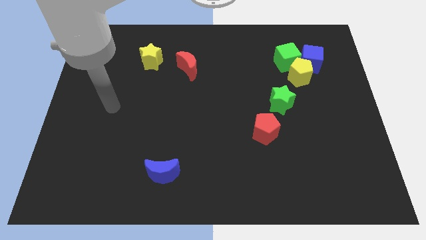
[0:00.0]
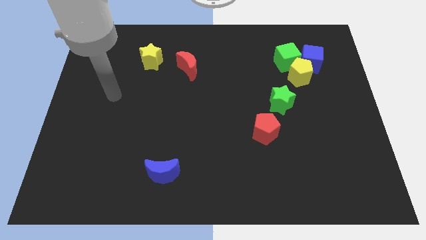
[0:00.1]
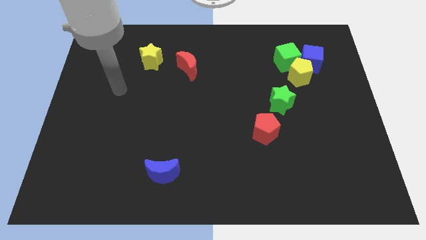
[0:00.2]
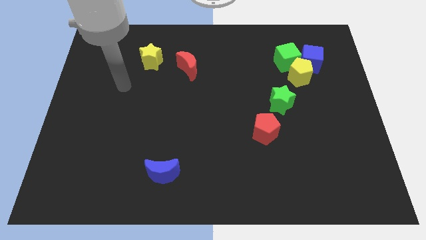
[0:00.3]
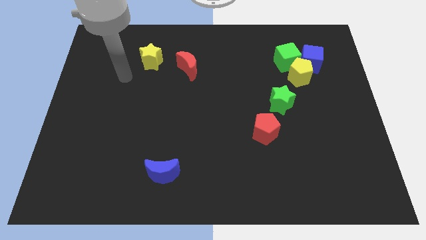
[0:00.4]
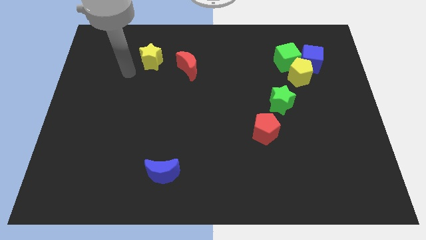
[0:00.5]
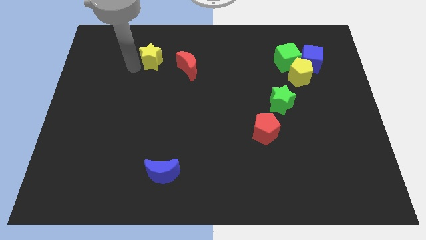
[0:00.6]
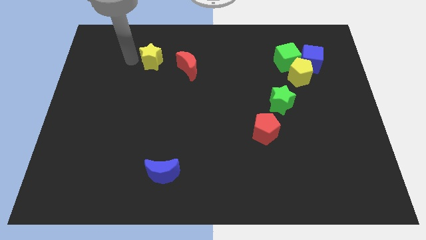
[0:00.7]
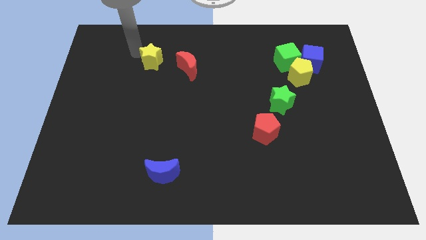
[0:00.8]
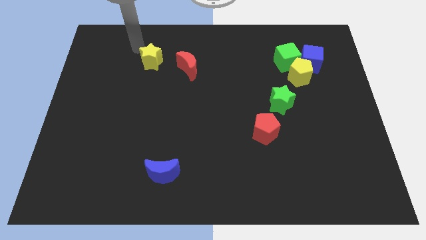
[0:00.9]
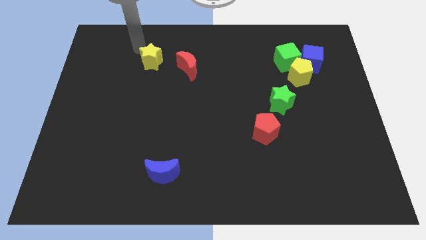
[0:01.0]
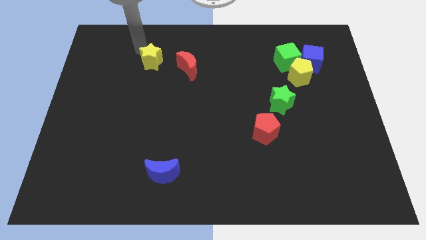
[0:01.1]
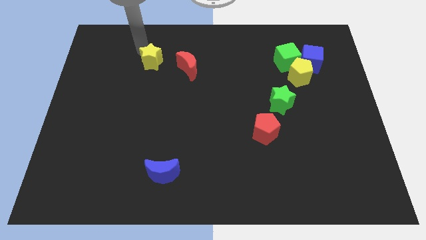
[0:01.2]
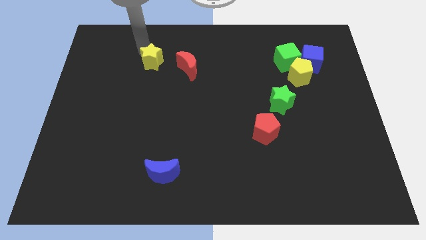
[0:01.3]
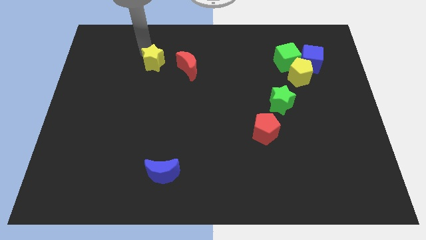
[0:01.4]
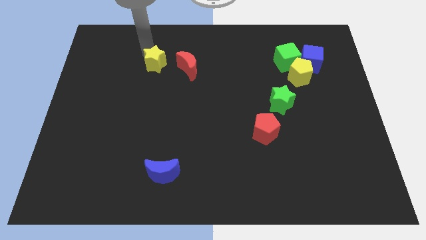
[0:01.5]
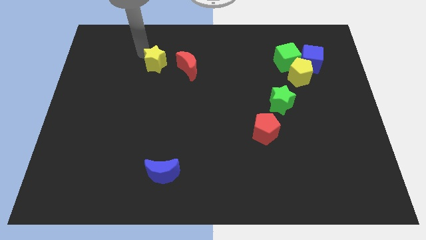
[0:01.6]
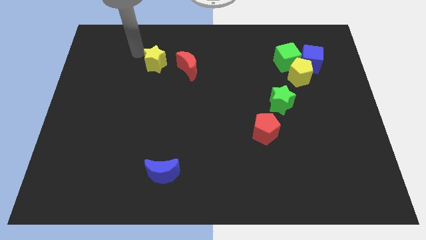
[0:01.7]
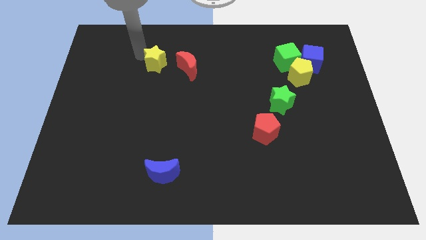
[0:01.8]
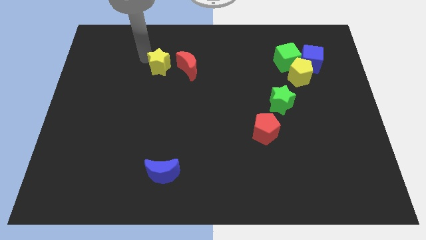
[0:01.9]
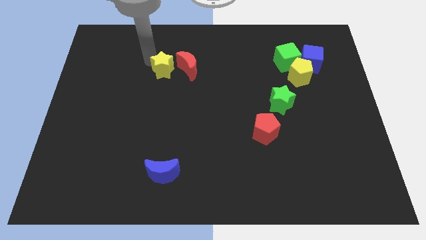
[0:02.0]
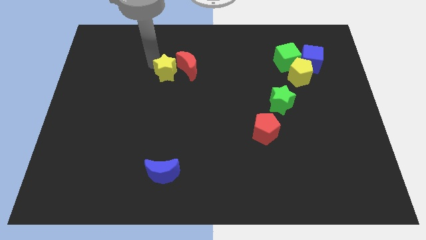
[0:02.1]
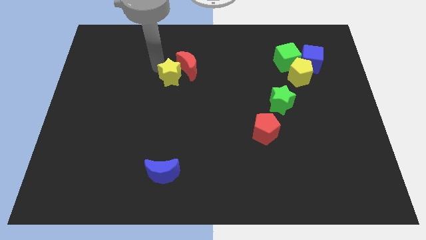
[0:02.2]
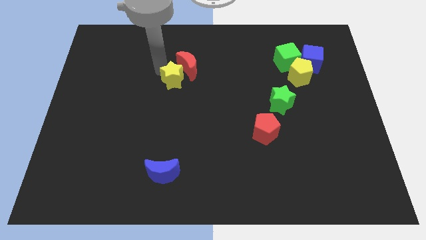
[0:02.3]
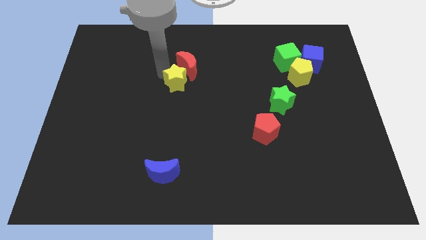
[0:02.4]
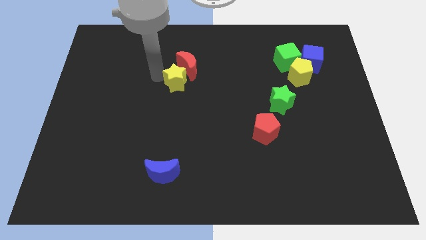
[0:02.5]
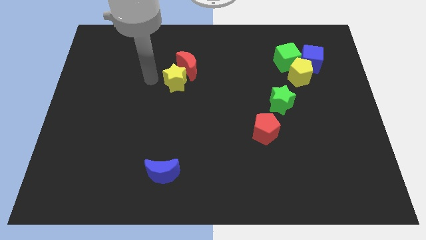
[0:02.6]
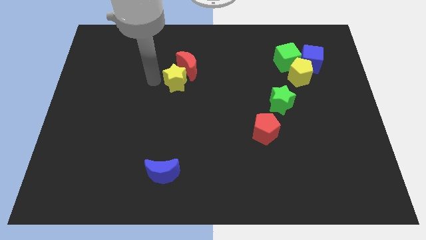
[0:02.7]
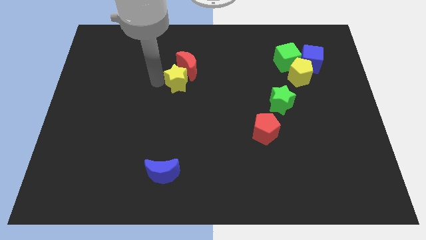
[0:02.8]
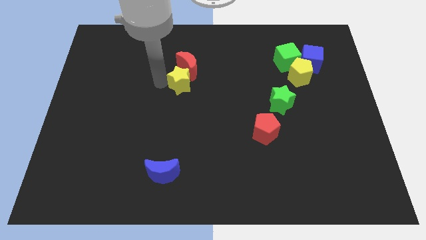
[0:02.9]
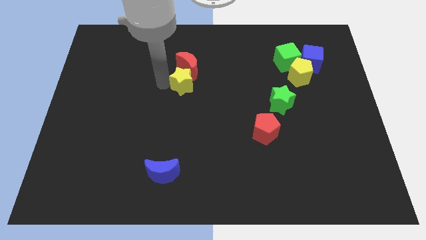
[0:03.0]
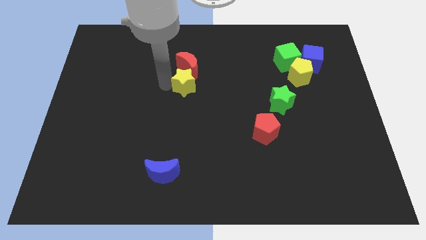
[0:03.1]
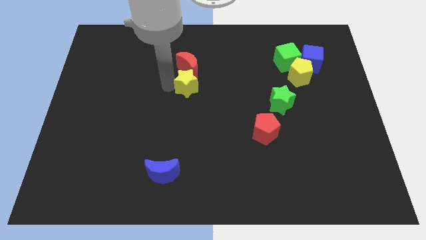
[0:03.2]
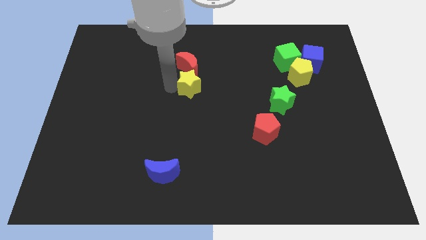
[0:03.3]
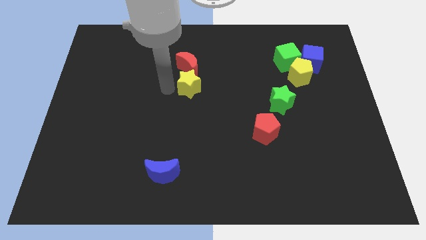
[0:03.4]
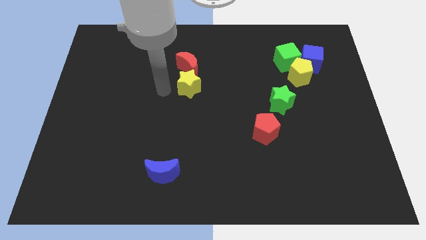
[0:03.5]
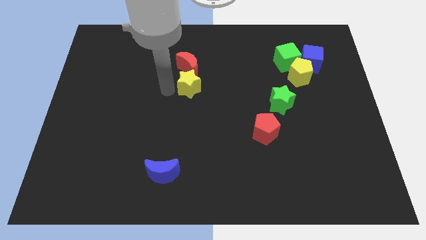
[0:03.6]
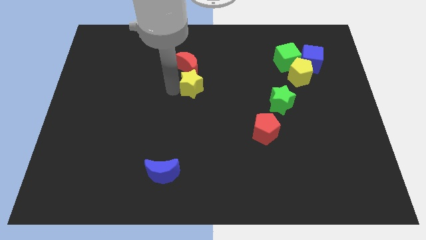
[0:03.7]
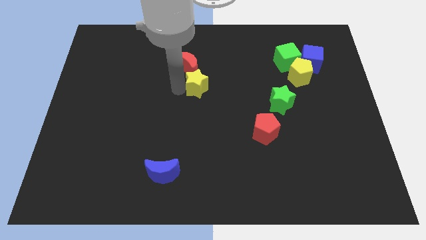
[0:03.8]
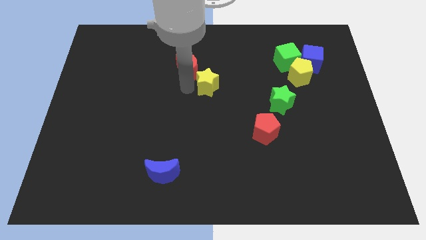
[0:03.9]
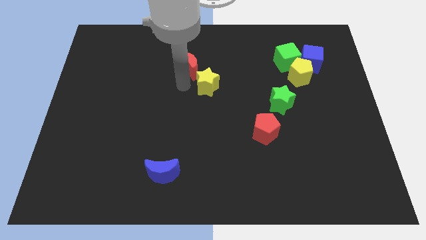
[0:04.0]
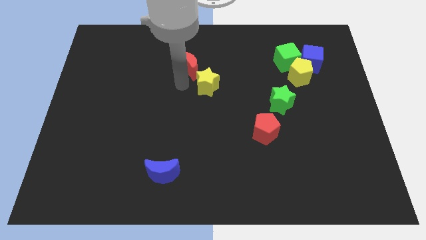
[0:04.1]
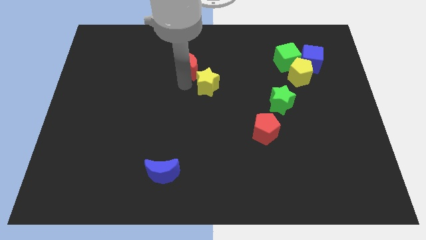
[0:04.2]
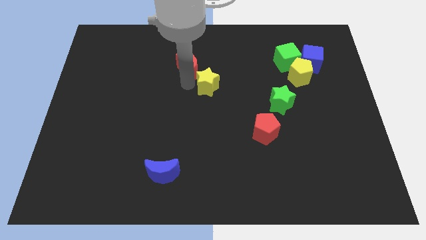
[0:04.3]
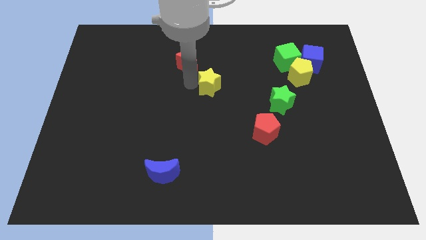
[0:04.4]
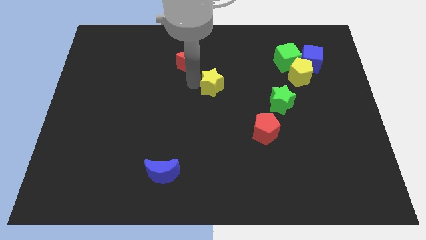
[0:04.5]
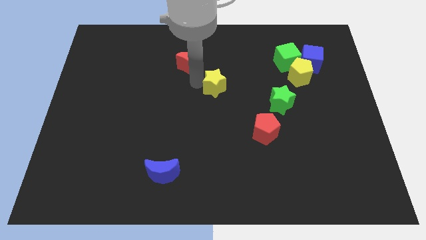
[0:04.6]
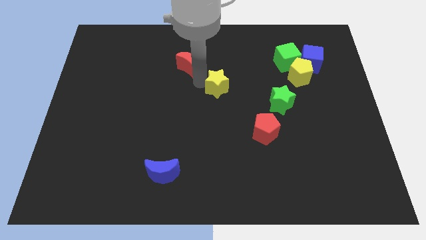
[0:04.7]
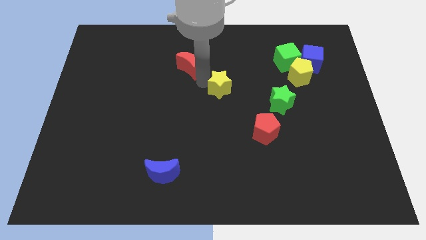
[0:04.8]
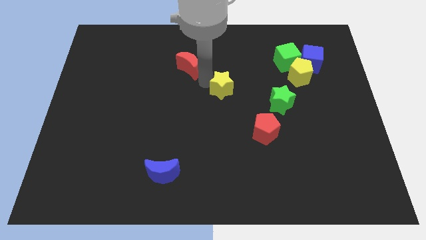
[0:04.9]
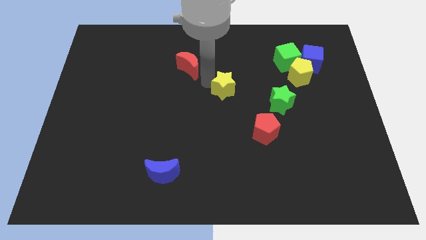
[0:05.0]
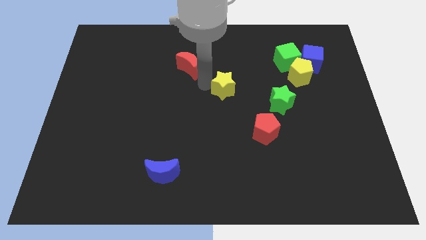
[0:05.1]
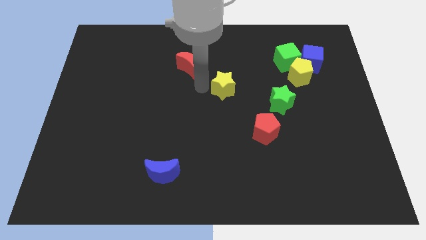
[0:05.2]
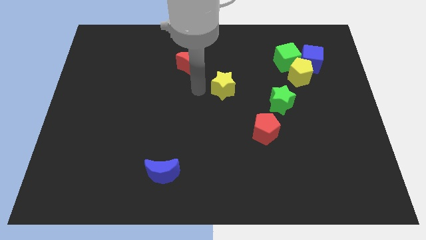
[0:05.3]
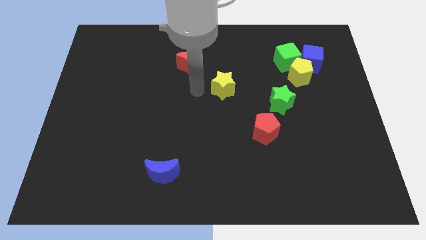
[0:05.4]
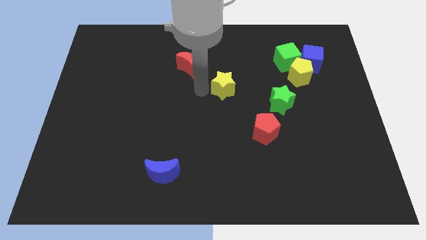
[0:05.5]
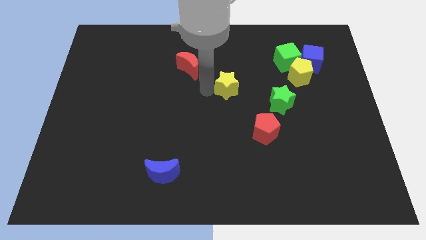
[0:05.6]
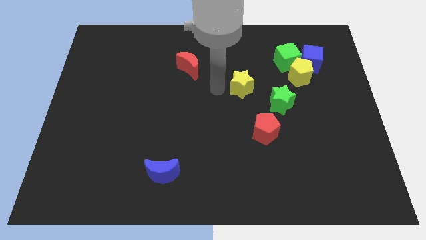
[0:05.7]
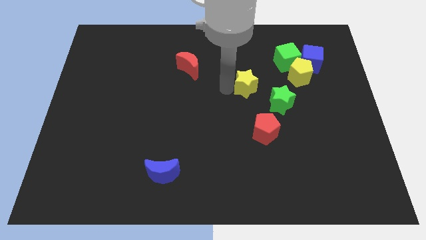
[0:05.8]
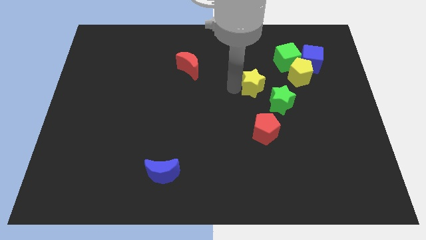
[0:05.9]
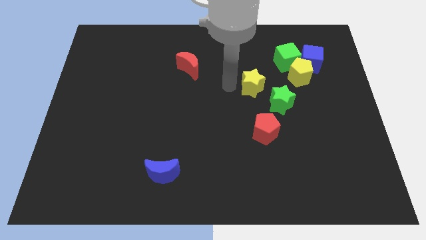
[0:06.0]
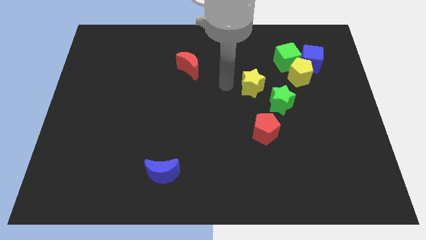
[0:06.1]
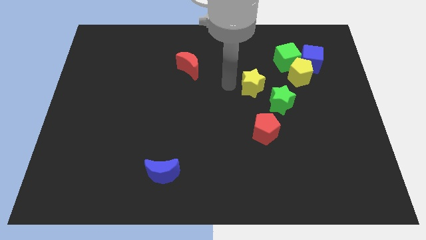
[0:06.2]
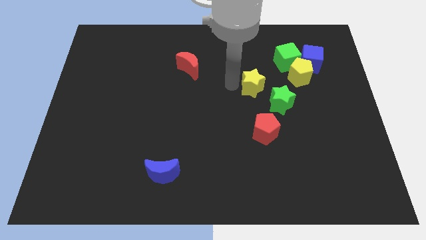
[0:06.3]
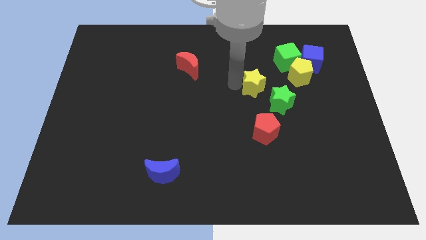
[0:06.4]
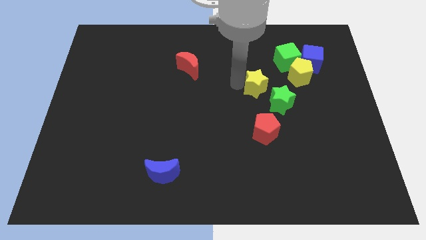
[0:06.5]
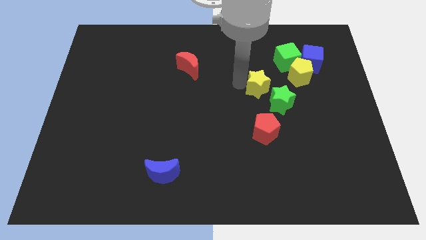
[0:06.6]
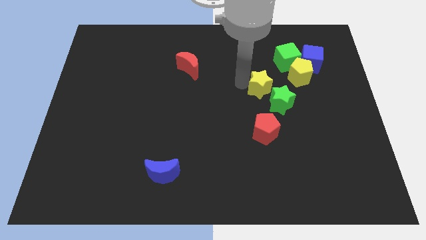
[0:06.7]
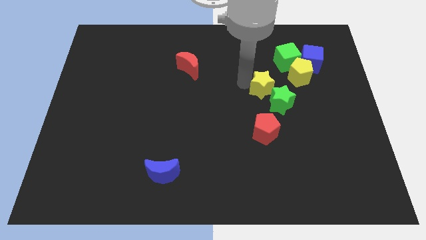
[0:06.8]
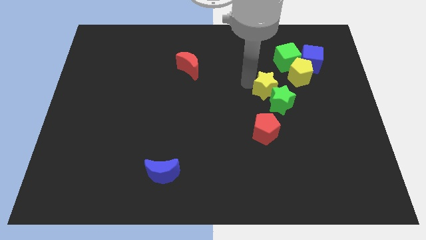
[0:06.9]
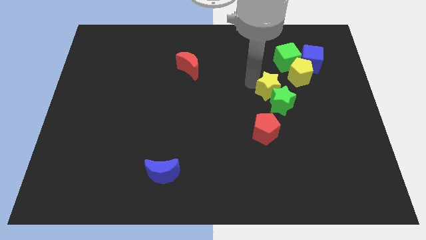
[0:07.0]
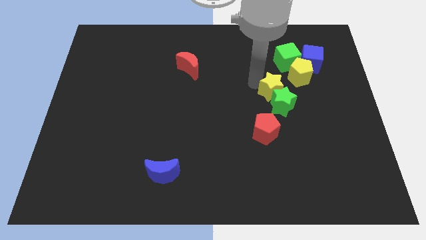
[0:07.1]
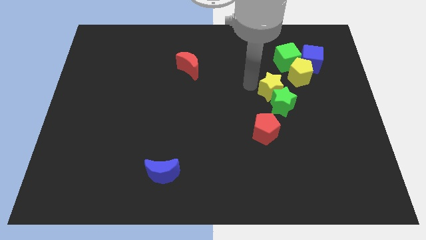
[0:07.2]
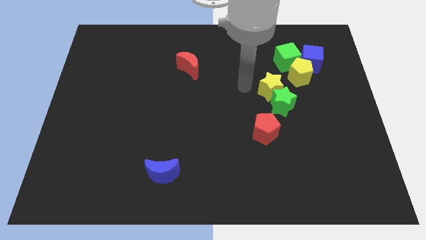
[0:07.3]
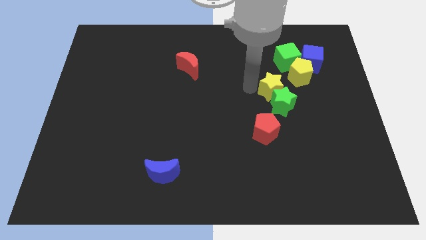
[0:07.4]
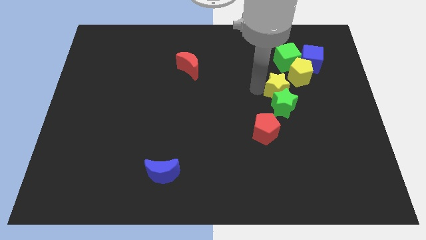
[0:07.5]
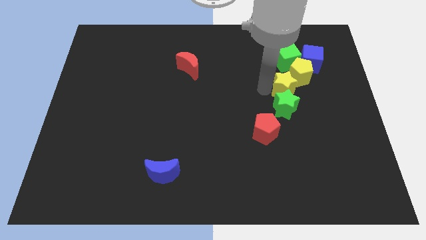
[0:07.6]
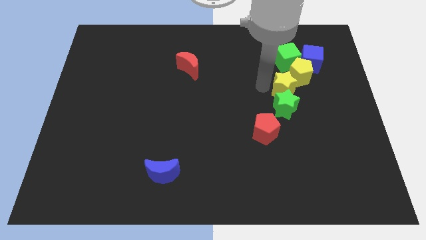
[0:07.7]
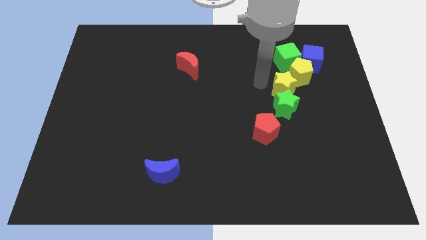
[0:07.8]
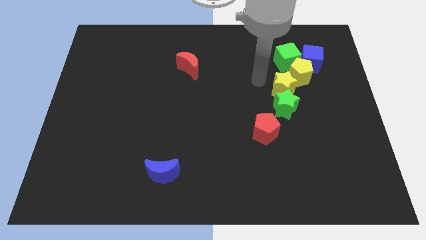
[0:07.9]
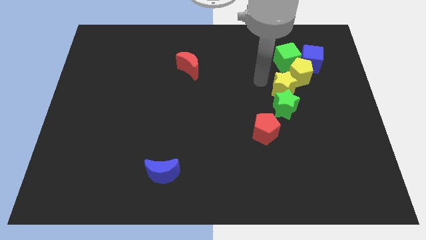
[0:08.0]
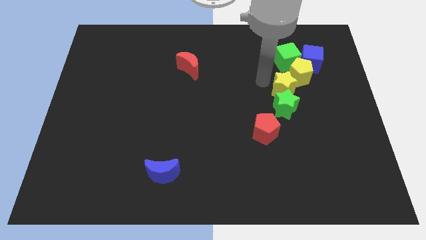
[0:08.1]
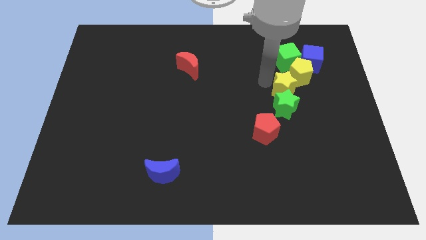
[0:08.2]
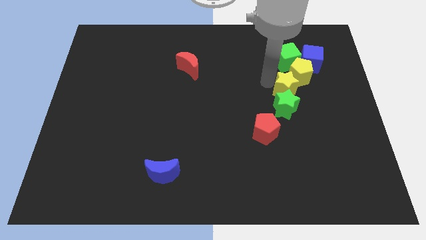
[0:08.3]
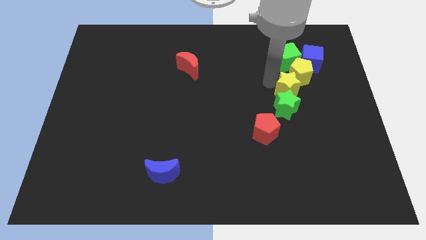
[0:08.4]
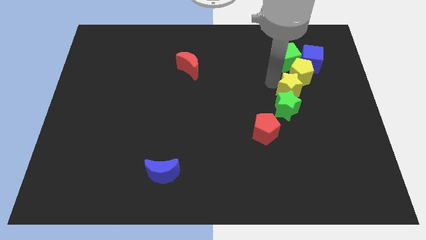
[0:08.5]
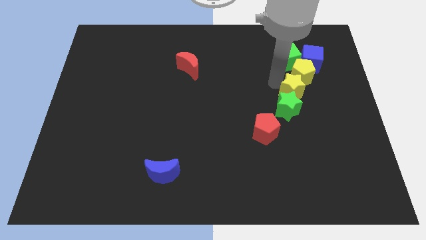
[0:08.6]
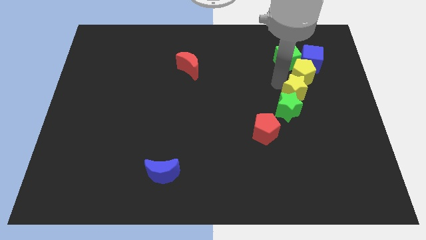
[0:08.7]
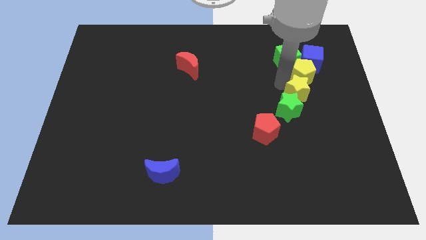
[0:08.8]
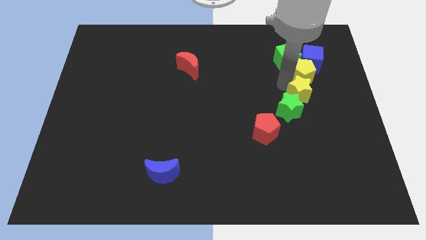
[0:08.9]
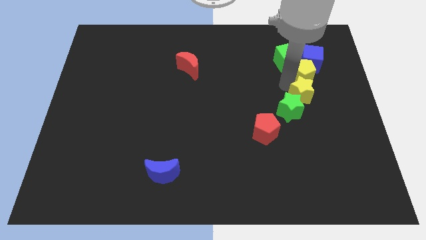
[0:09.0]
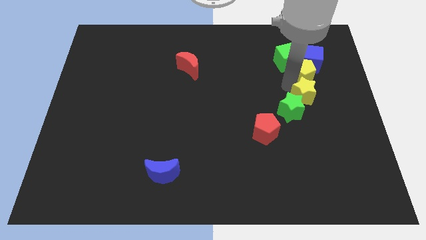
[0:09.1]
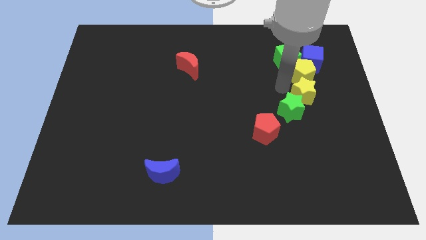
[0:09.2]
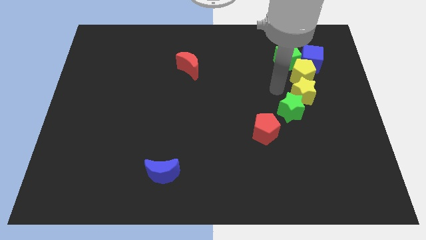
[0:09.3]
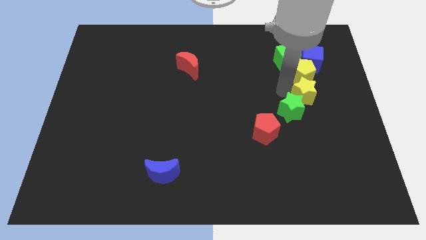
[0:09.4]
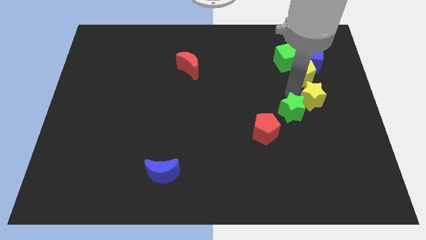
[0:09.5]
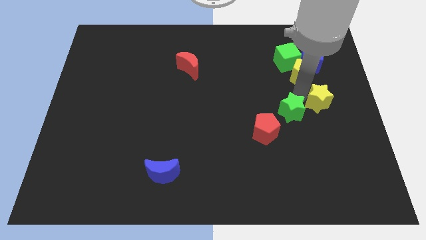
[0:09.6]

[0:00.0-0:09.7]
put the yellow star to the right side
